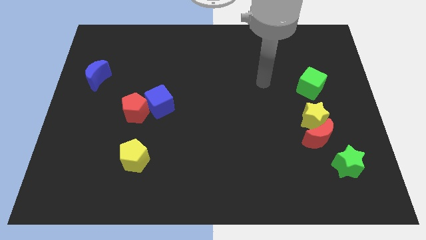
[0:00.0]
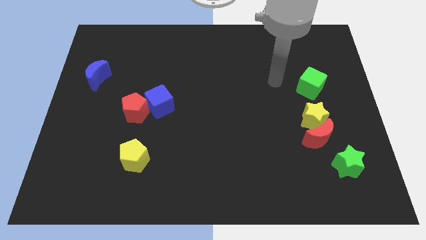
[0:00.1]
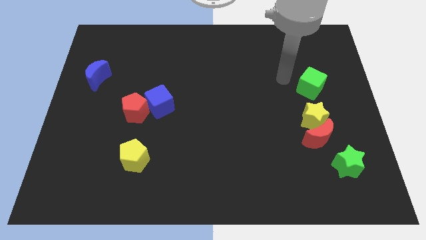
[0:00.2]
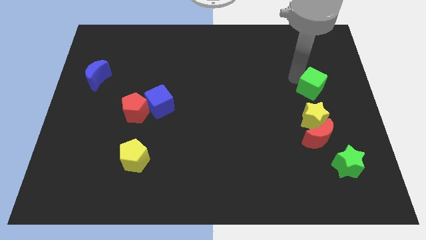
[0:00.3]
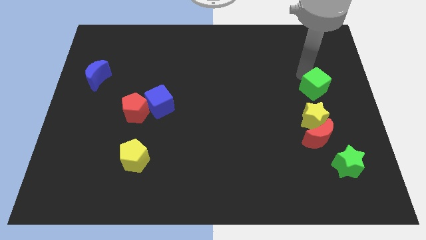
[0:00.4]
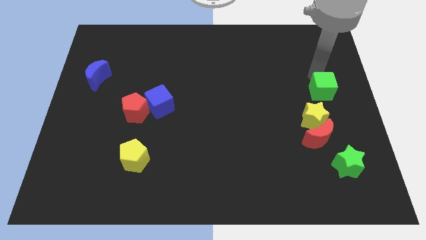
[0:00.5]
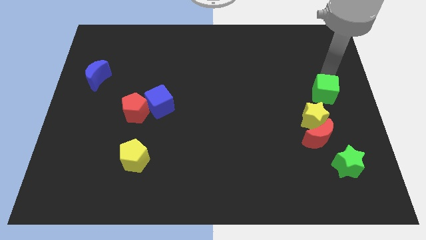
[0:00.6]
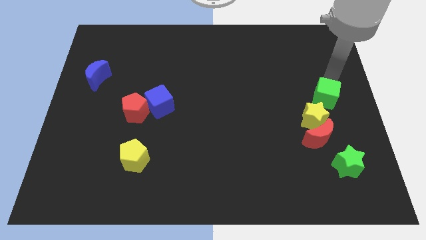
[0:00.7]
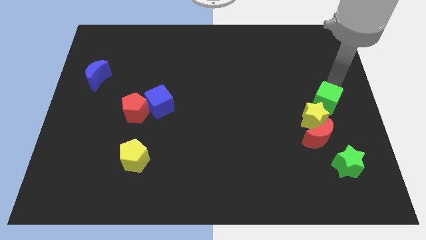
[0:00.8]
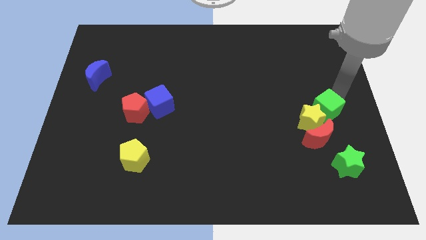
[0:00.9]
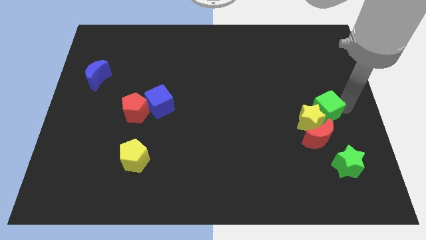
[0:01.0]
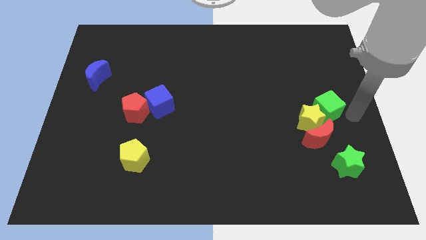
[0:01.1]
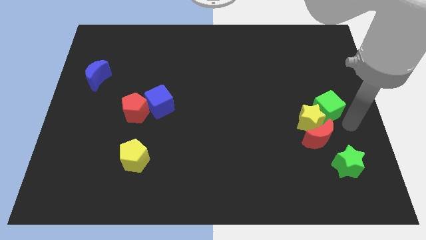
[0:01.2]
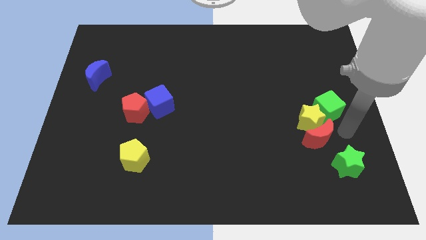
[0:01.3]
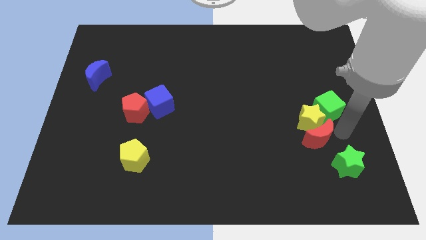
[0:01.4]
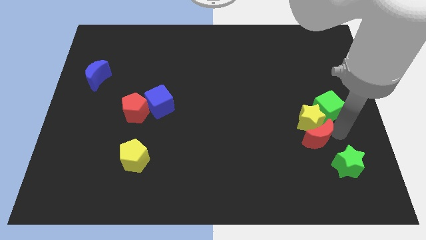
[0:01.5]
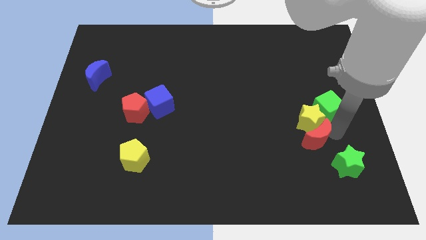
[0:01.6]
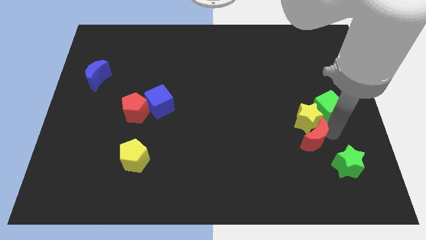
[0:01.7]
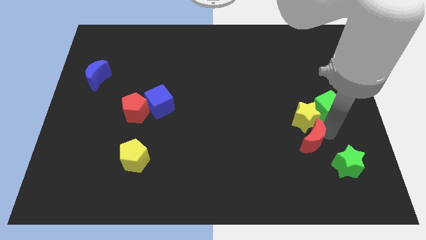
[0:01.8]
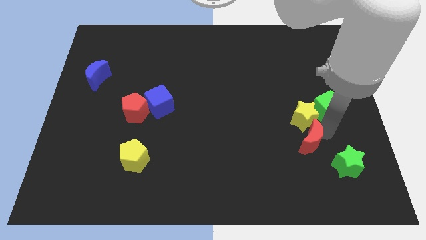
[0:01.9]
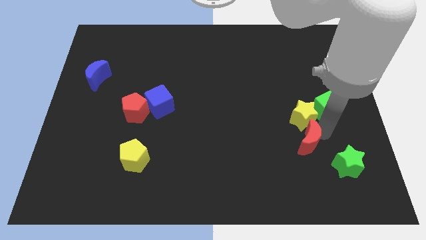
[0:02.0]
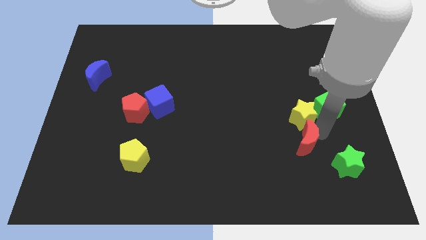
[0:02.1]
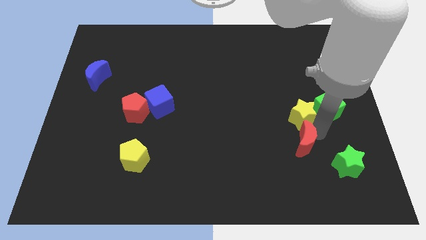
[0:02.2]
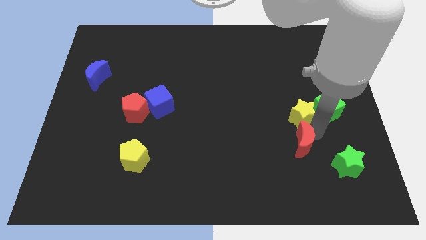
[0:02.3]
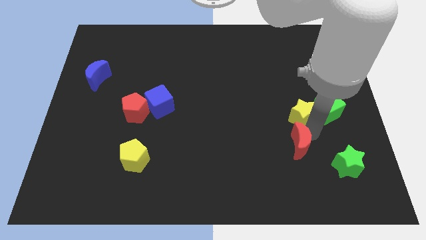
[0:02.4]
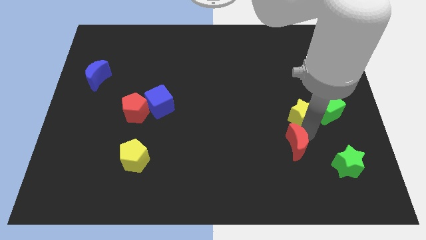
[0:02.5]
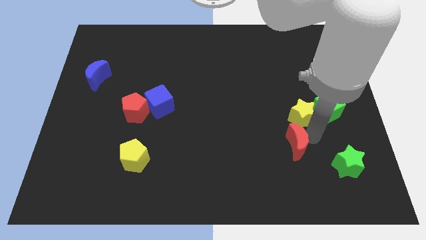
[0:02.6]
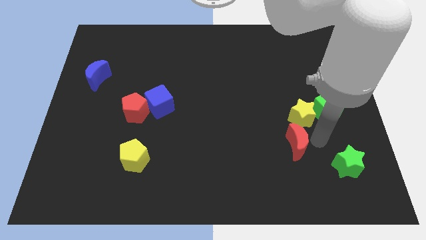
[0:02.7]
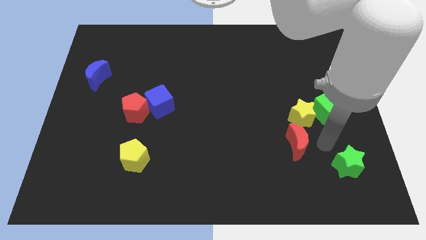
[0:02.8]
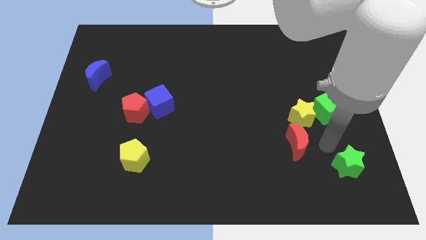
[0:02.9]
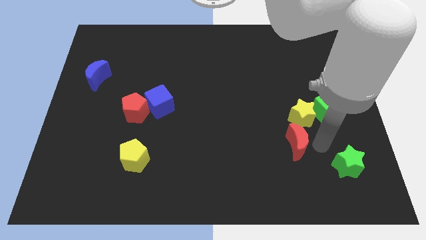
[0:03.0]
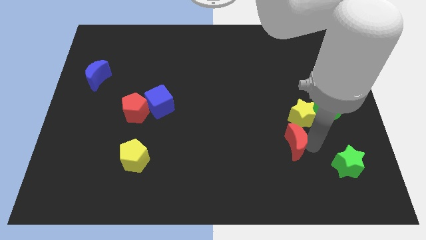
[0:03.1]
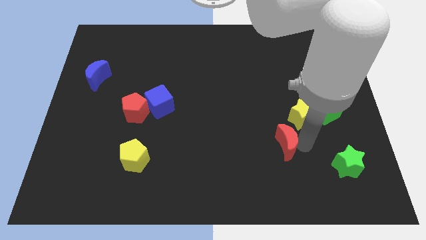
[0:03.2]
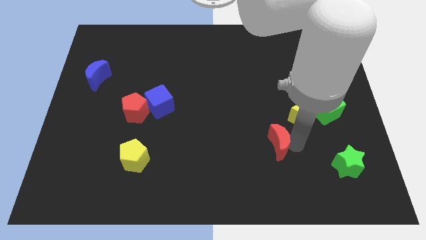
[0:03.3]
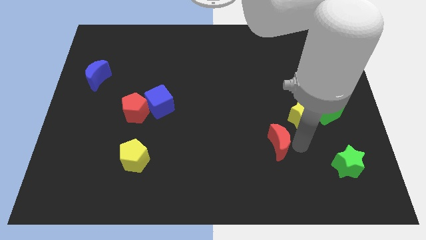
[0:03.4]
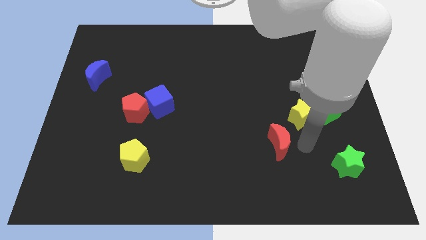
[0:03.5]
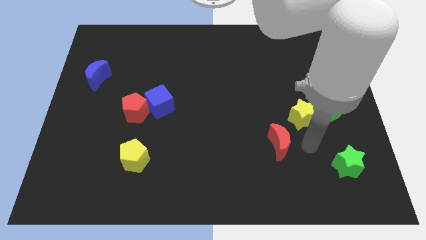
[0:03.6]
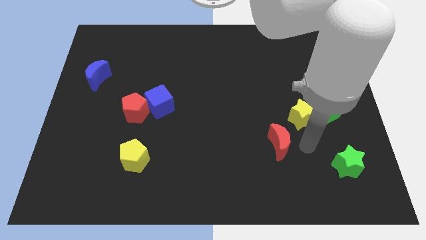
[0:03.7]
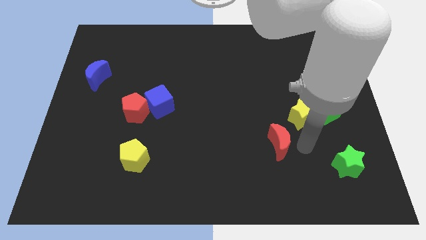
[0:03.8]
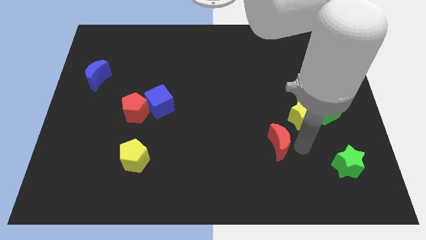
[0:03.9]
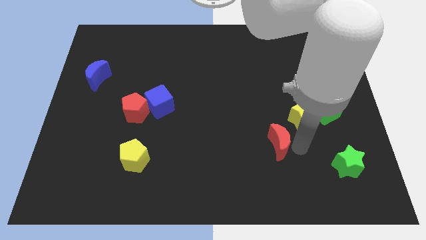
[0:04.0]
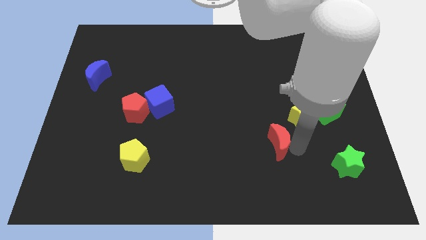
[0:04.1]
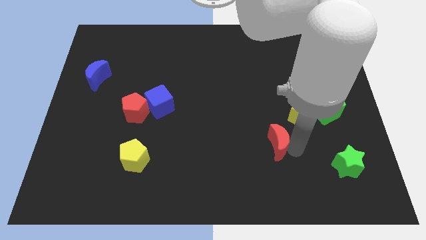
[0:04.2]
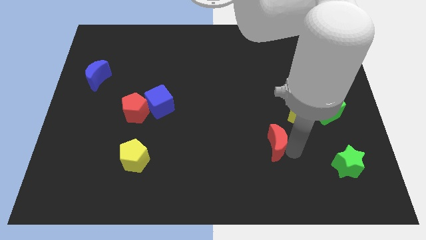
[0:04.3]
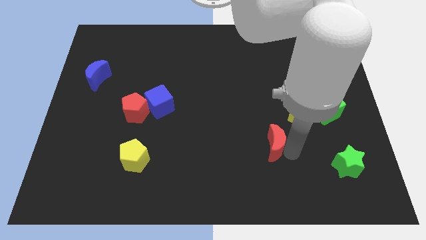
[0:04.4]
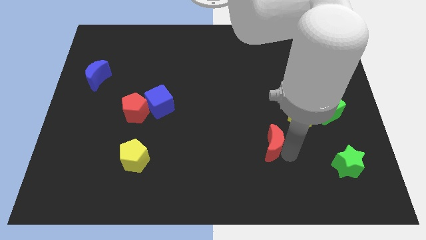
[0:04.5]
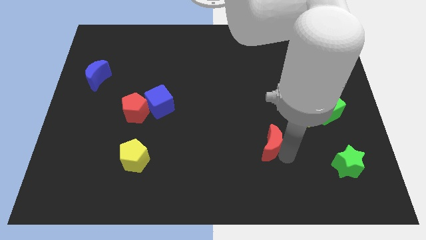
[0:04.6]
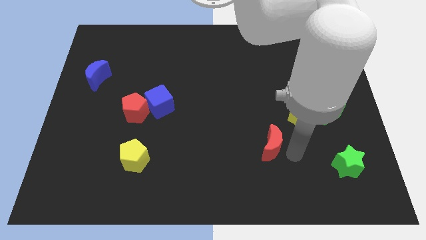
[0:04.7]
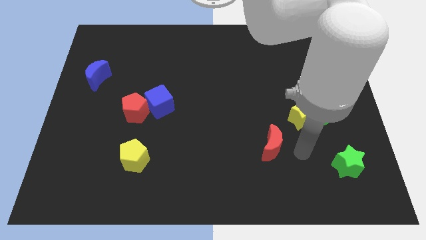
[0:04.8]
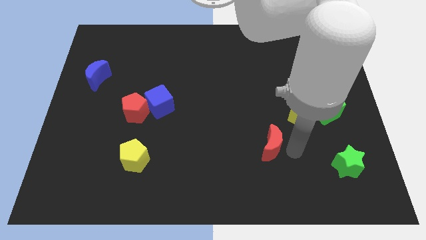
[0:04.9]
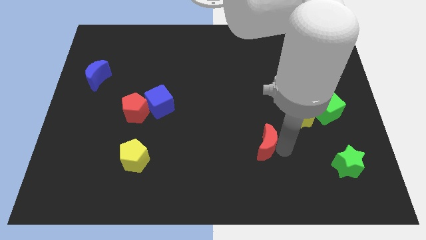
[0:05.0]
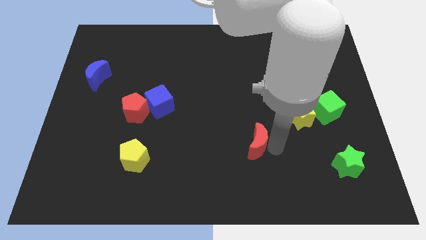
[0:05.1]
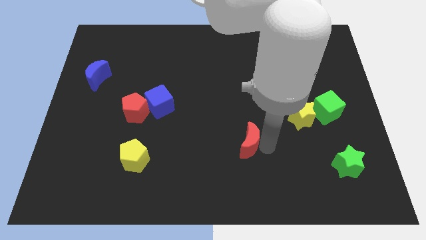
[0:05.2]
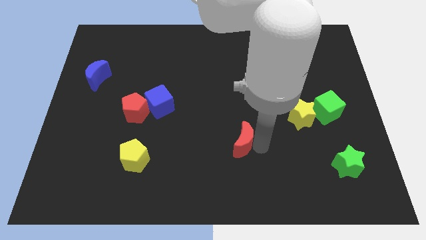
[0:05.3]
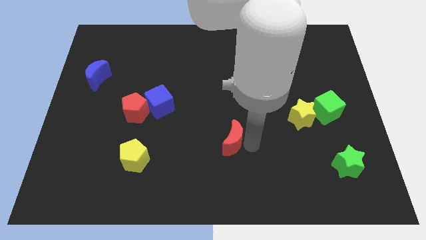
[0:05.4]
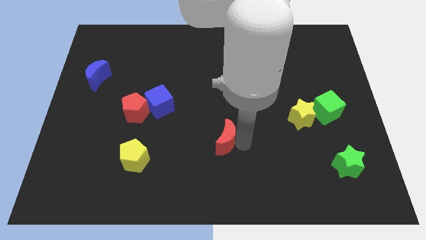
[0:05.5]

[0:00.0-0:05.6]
move the red moon left

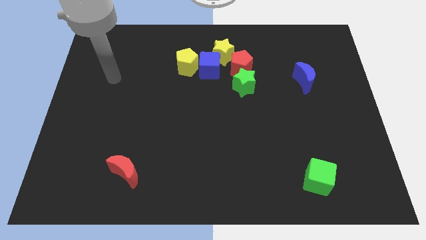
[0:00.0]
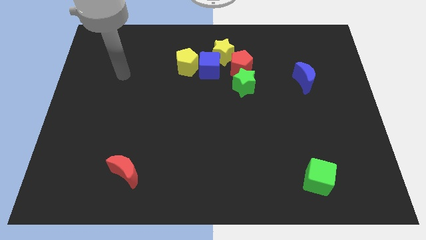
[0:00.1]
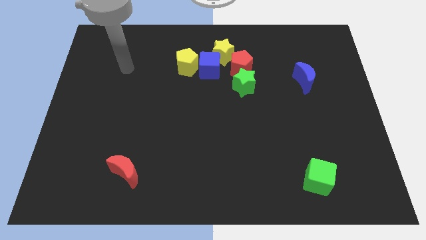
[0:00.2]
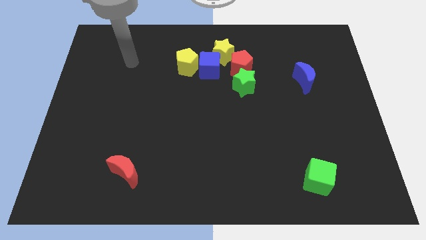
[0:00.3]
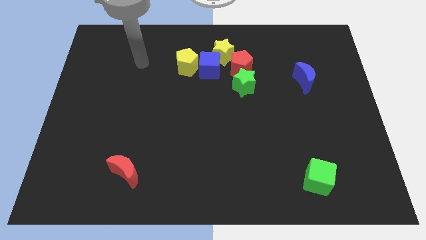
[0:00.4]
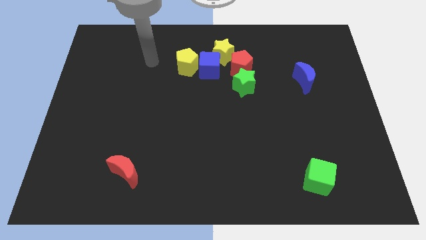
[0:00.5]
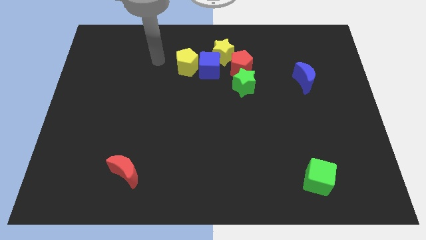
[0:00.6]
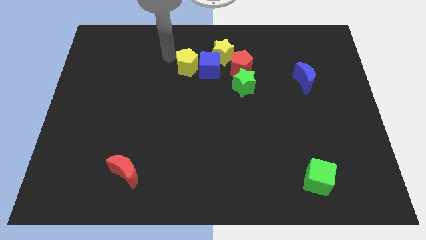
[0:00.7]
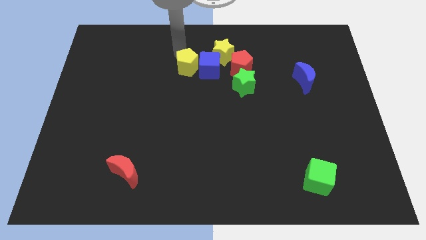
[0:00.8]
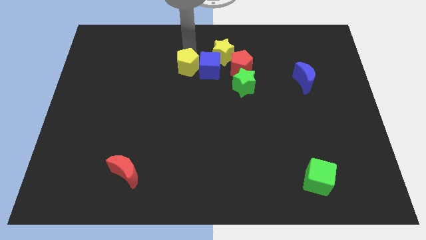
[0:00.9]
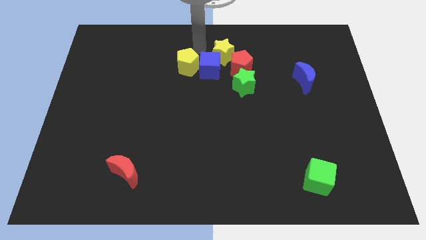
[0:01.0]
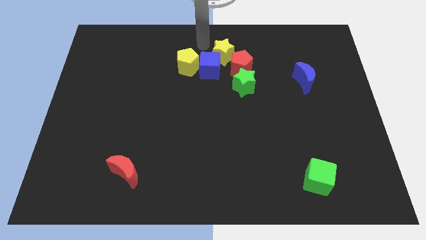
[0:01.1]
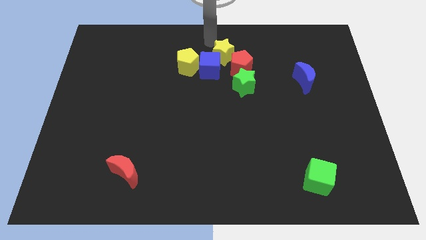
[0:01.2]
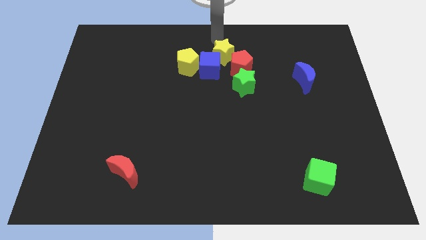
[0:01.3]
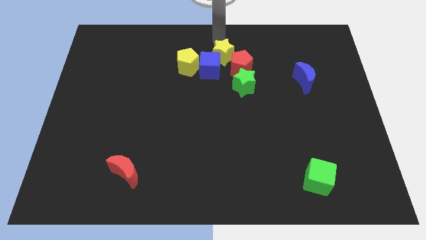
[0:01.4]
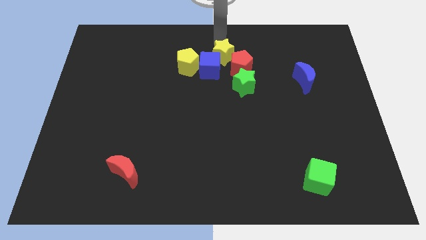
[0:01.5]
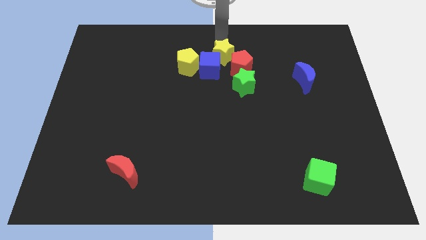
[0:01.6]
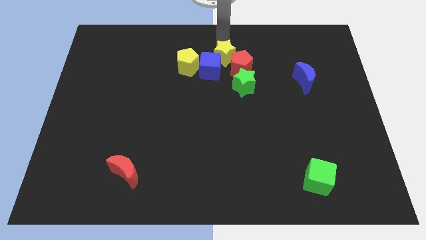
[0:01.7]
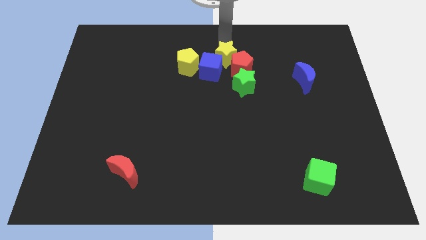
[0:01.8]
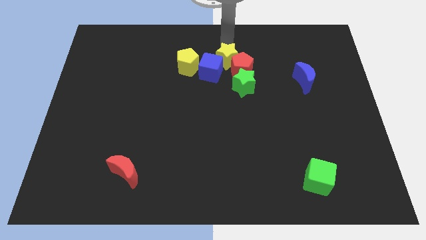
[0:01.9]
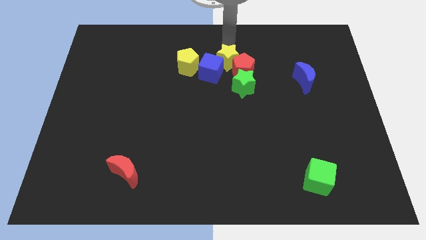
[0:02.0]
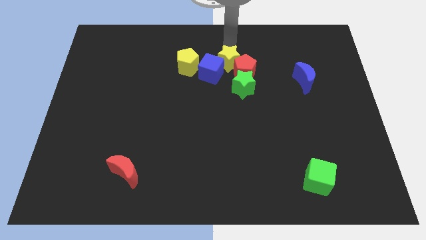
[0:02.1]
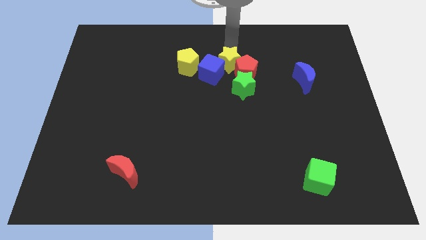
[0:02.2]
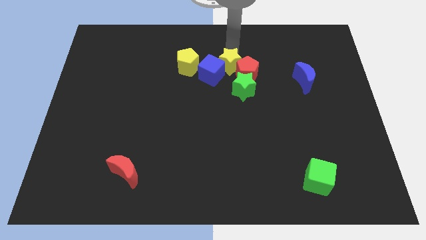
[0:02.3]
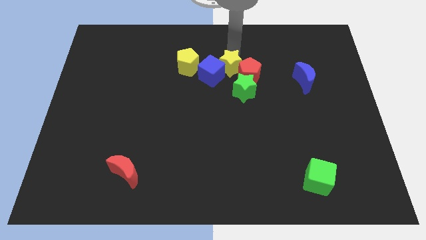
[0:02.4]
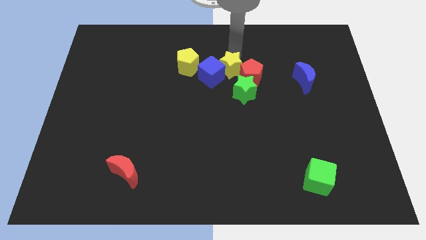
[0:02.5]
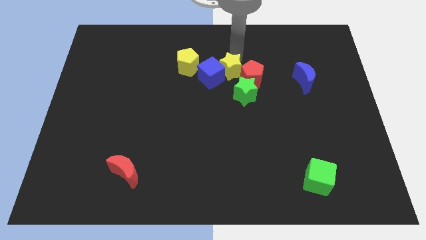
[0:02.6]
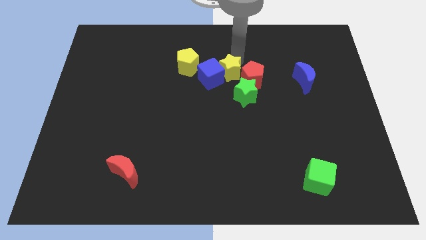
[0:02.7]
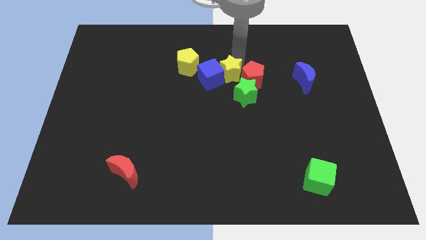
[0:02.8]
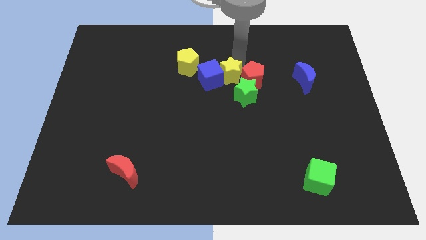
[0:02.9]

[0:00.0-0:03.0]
slide the yellow star somewhat downwards
